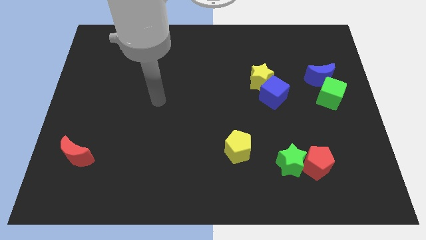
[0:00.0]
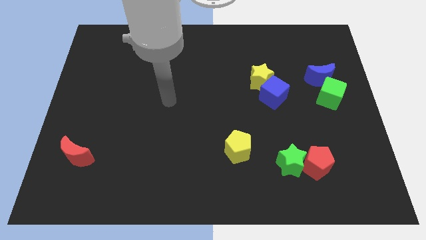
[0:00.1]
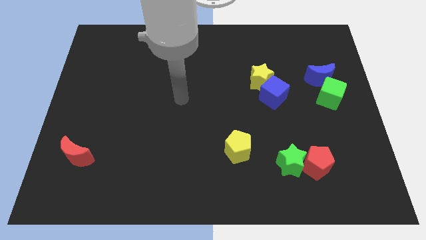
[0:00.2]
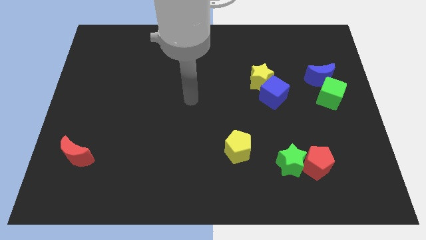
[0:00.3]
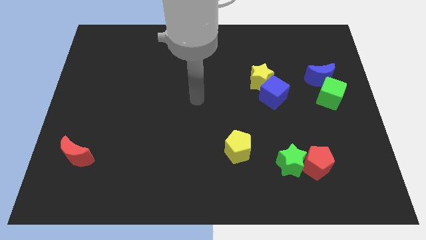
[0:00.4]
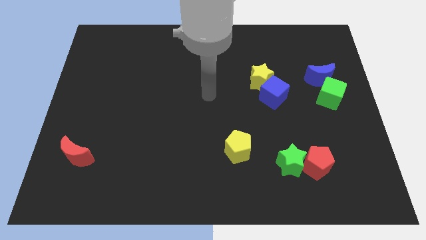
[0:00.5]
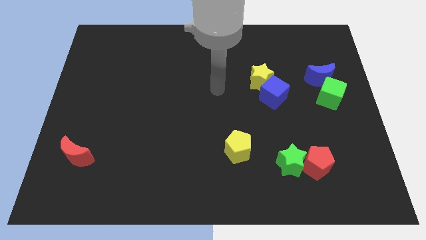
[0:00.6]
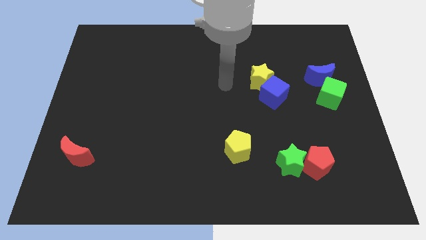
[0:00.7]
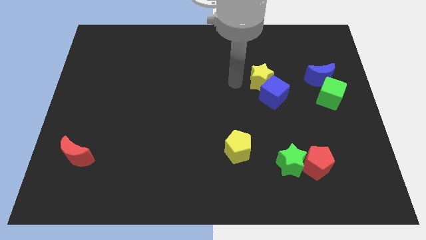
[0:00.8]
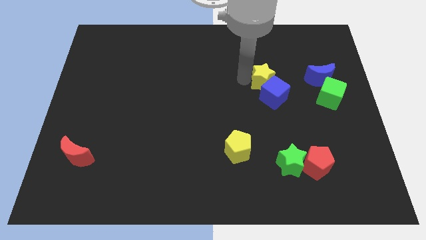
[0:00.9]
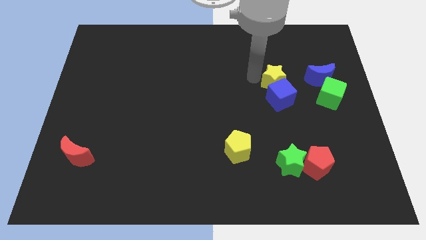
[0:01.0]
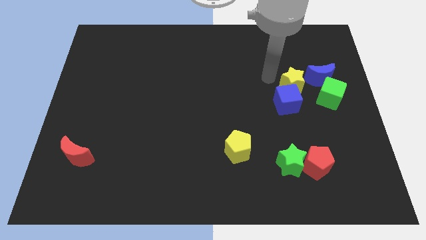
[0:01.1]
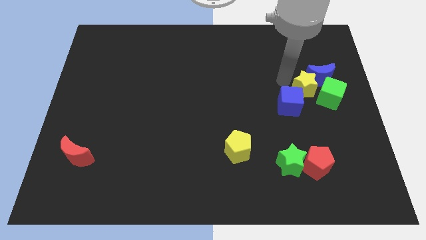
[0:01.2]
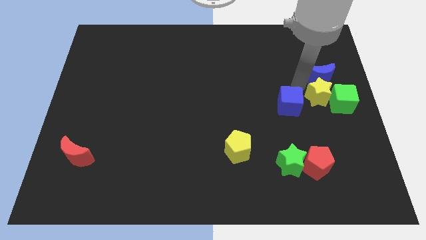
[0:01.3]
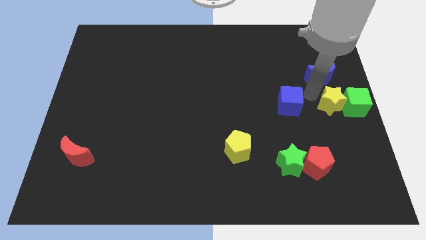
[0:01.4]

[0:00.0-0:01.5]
move the blue cube away from the yellow star

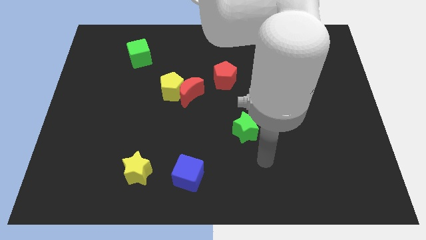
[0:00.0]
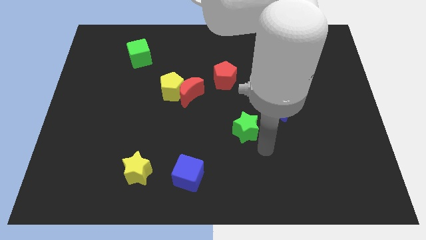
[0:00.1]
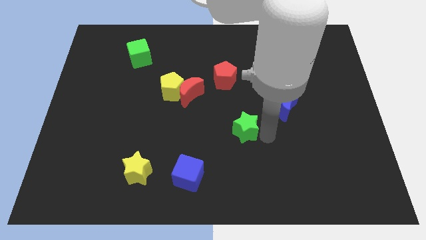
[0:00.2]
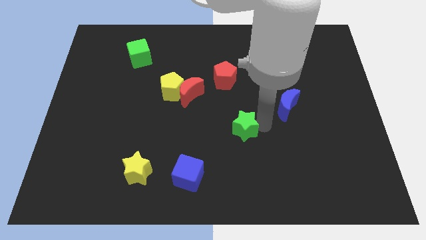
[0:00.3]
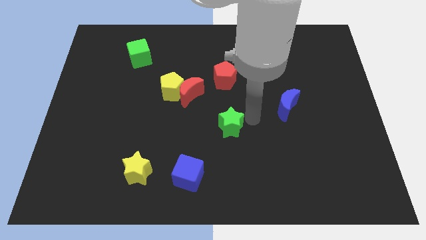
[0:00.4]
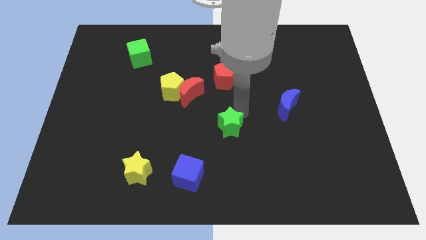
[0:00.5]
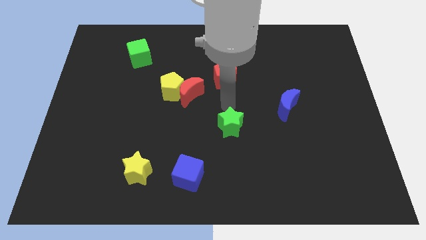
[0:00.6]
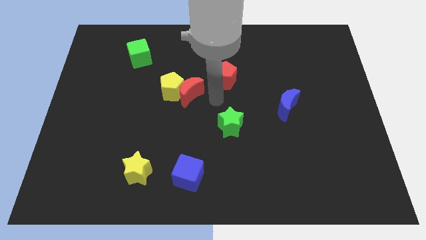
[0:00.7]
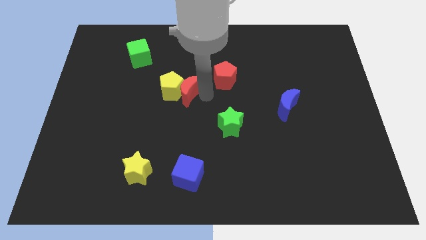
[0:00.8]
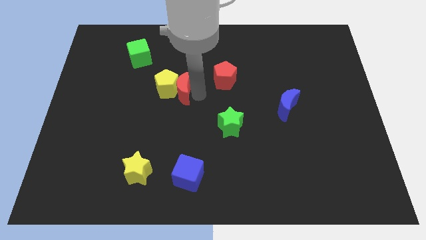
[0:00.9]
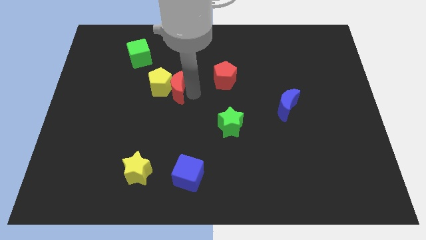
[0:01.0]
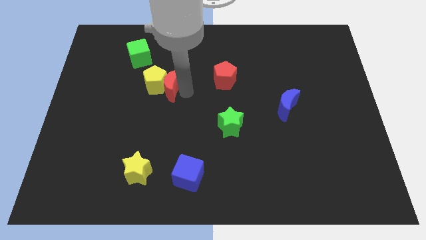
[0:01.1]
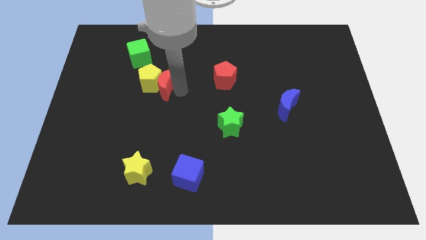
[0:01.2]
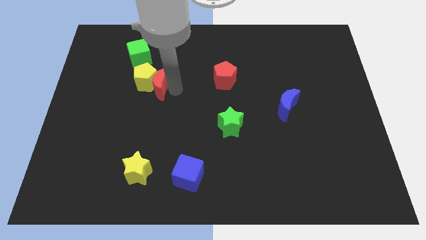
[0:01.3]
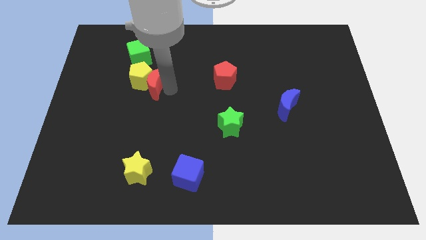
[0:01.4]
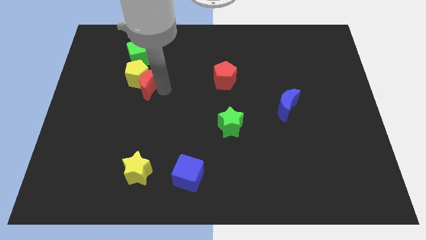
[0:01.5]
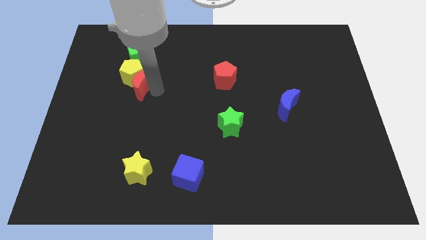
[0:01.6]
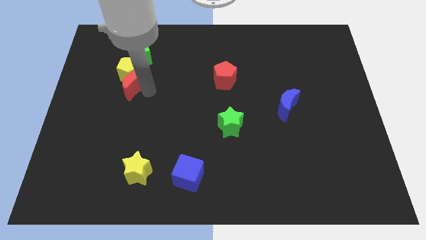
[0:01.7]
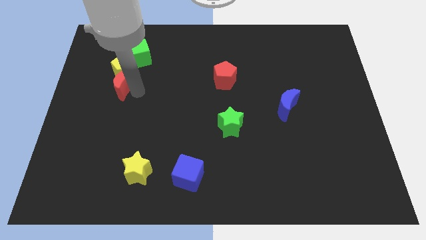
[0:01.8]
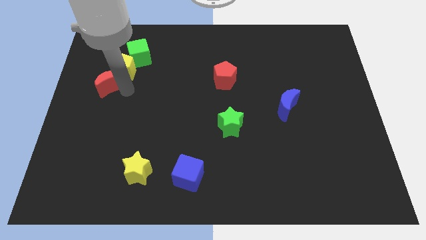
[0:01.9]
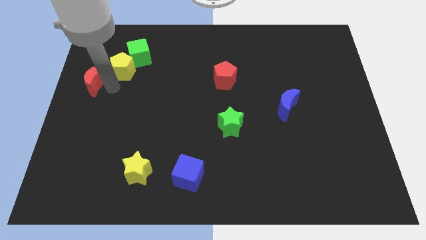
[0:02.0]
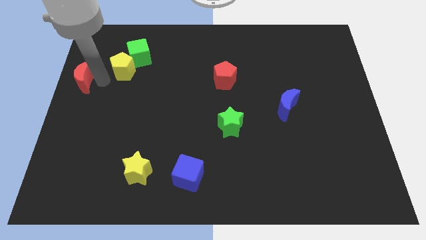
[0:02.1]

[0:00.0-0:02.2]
separate the yellow pentagon from the red moon

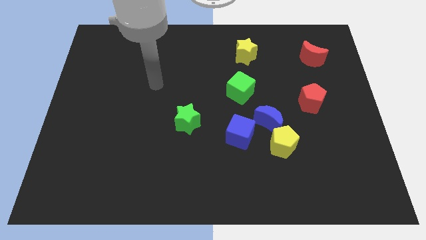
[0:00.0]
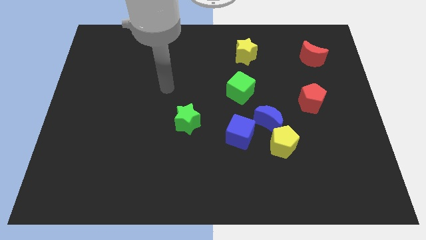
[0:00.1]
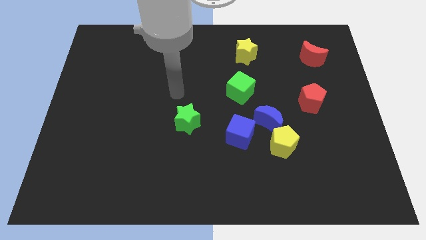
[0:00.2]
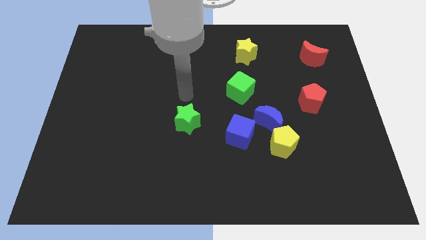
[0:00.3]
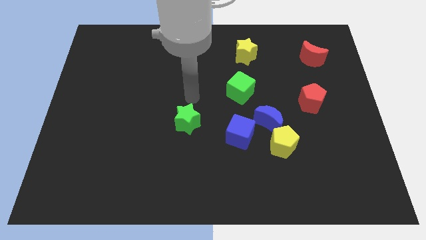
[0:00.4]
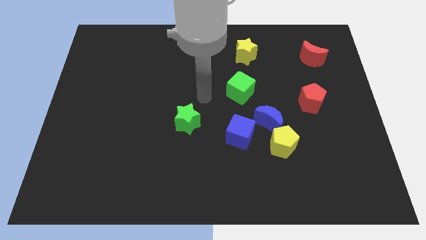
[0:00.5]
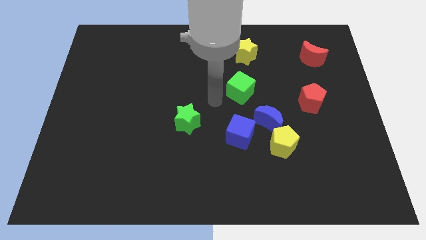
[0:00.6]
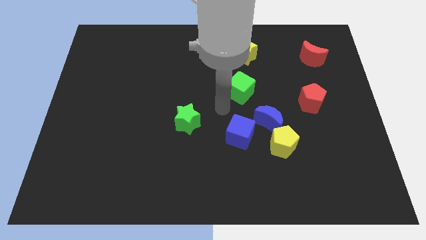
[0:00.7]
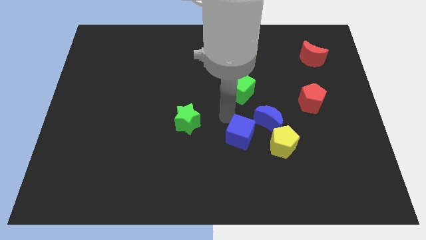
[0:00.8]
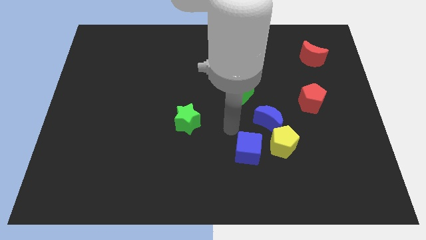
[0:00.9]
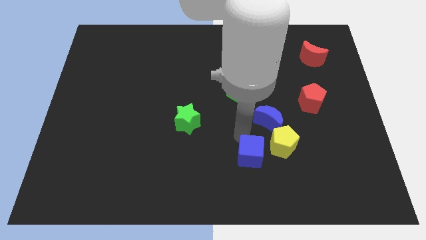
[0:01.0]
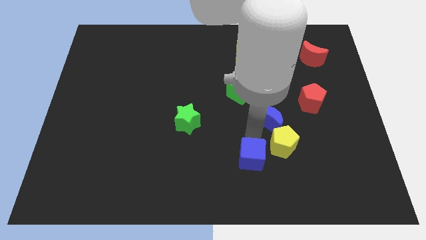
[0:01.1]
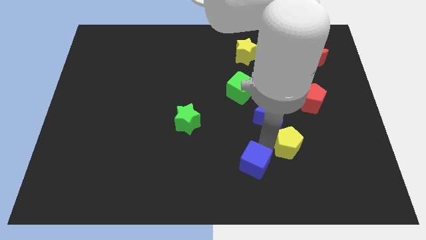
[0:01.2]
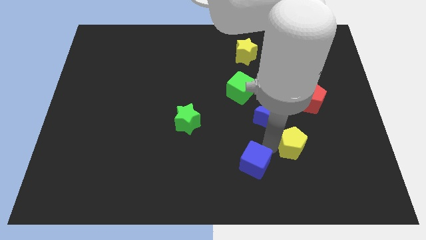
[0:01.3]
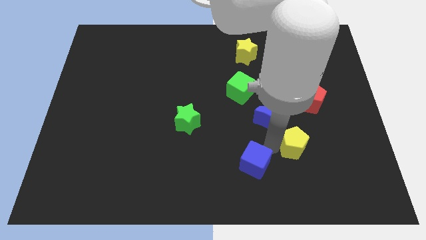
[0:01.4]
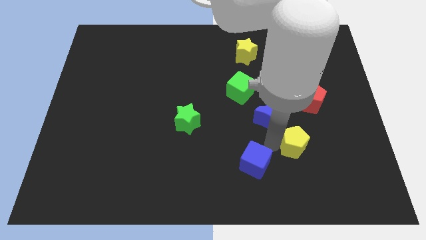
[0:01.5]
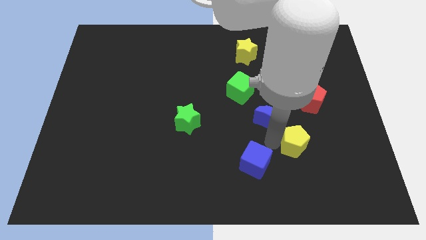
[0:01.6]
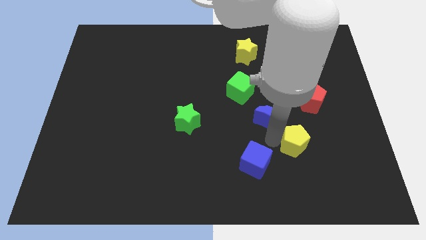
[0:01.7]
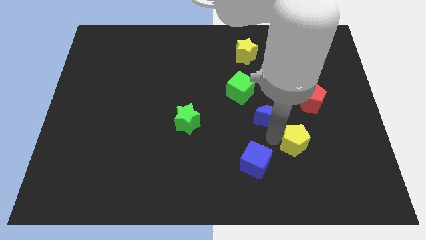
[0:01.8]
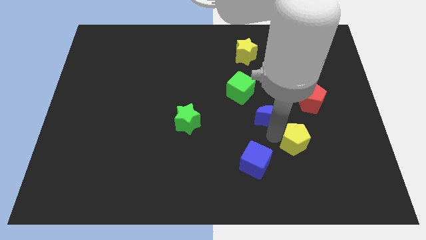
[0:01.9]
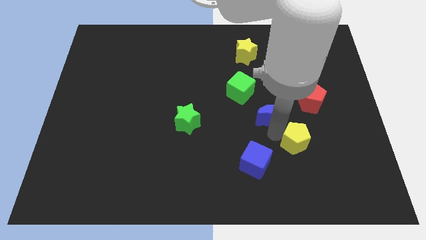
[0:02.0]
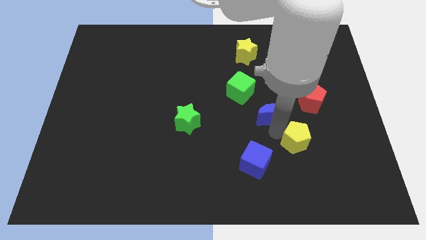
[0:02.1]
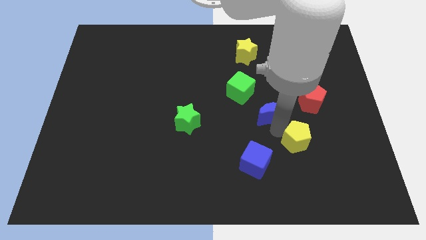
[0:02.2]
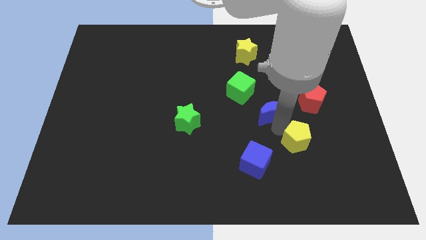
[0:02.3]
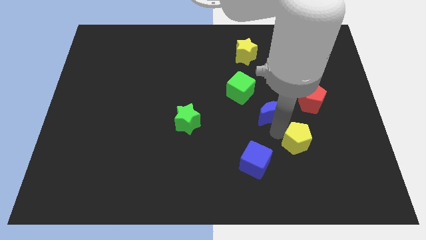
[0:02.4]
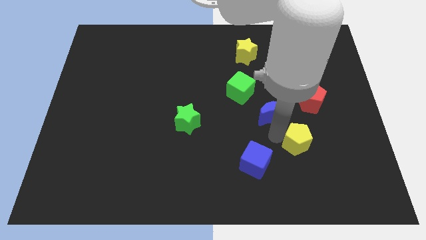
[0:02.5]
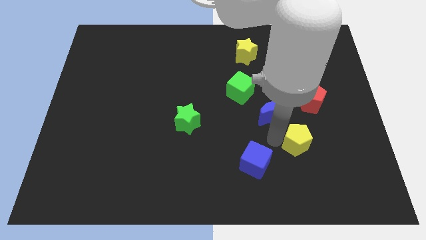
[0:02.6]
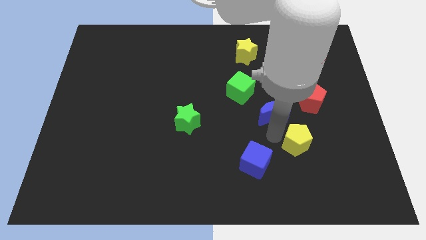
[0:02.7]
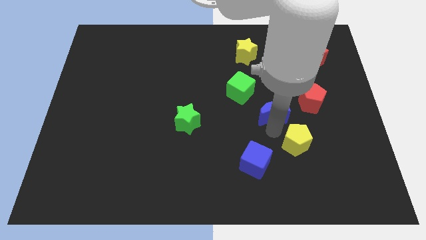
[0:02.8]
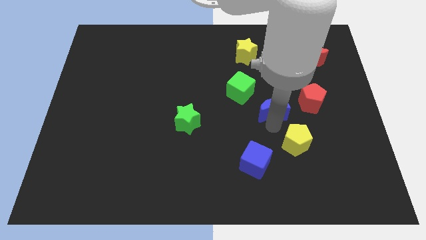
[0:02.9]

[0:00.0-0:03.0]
move the blue moon away from the yellow pentagon and blue cube

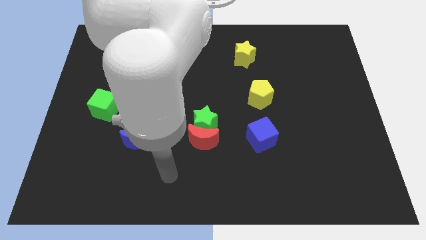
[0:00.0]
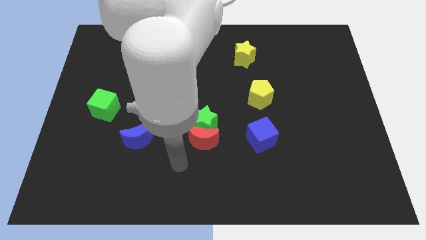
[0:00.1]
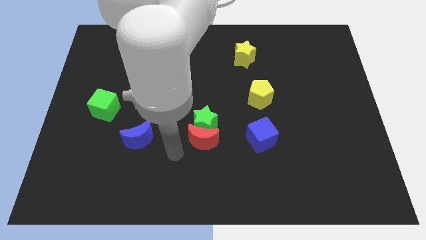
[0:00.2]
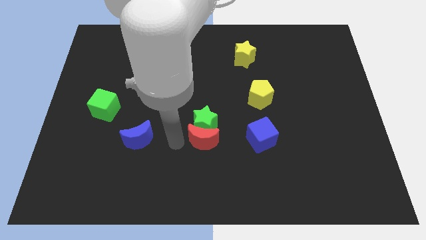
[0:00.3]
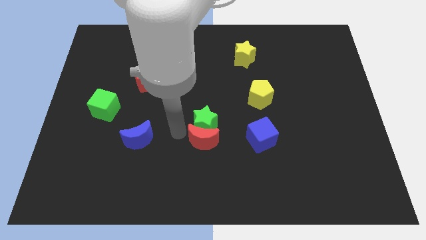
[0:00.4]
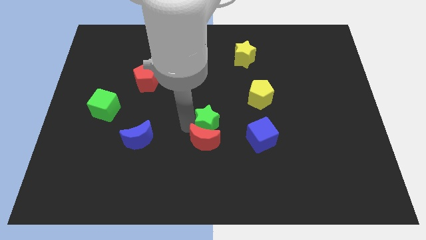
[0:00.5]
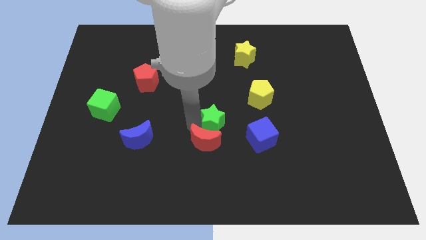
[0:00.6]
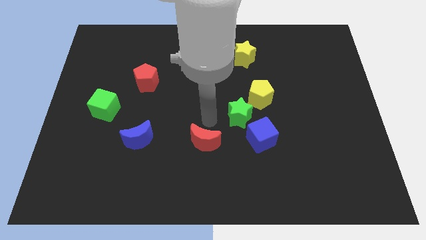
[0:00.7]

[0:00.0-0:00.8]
pull the red moon apart from the green star

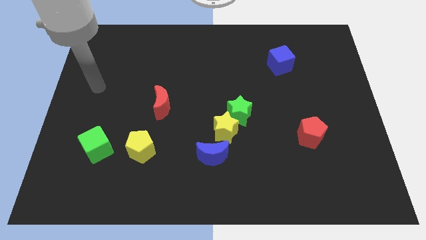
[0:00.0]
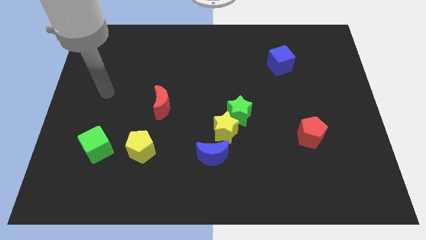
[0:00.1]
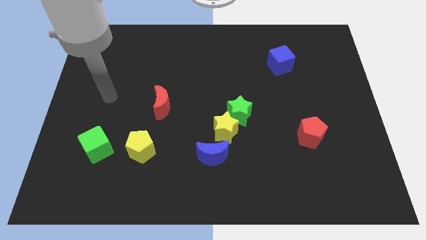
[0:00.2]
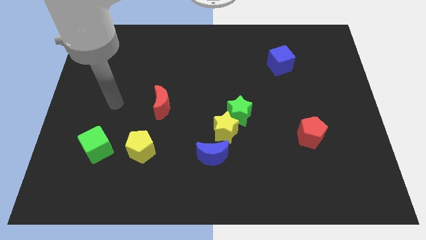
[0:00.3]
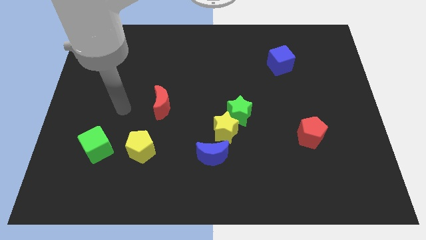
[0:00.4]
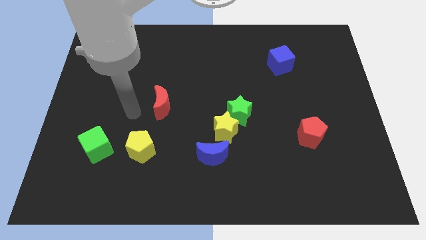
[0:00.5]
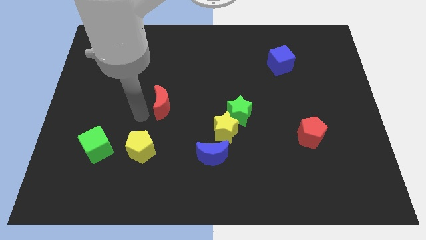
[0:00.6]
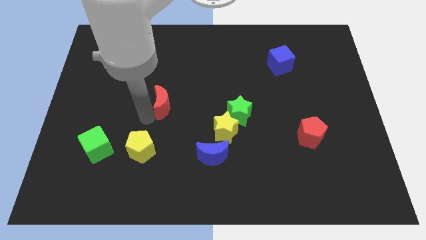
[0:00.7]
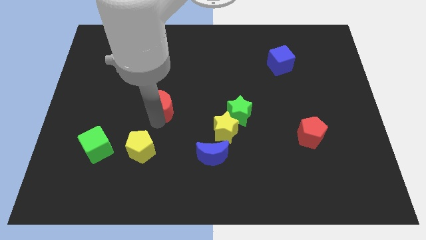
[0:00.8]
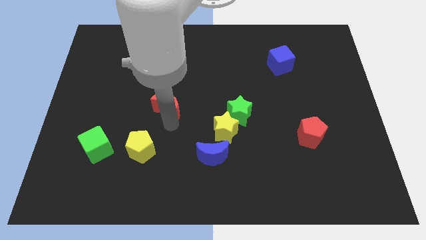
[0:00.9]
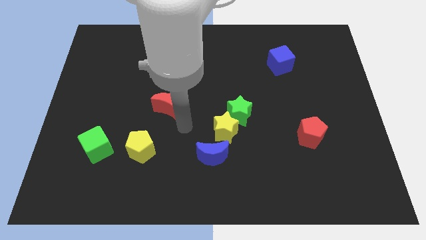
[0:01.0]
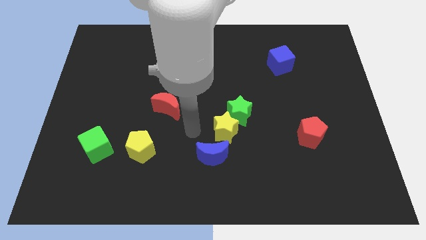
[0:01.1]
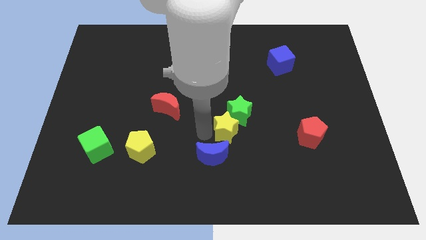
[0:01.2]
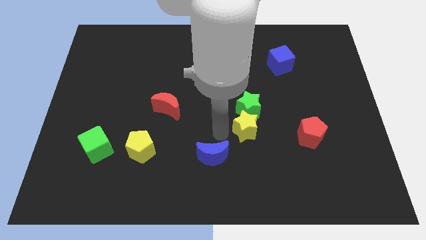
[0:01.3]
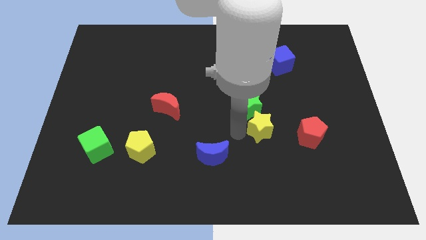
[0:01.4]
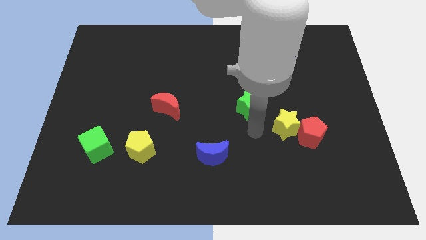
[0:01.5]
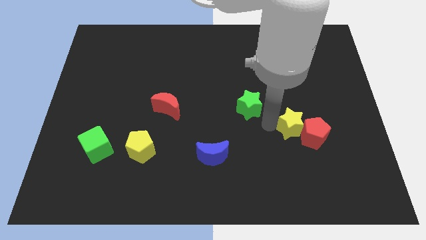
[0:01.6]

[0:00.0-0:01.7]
pull the green star apart from the yellow star
